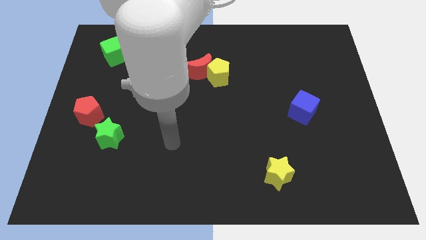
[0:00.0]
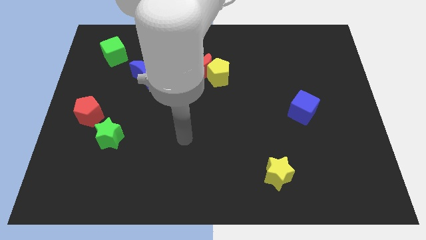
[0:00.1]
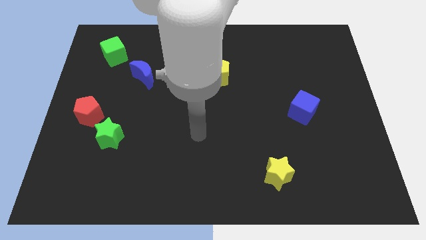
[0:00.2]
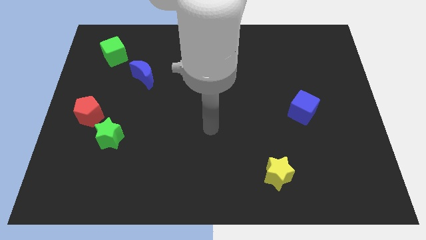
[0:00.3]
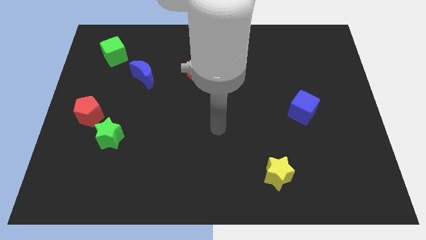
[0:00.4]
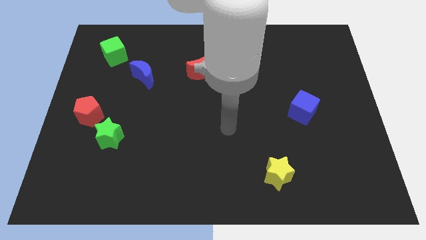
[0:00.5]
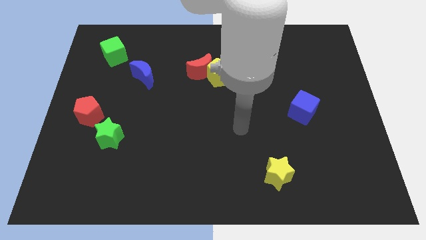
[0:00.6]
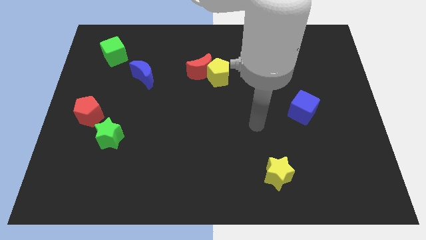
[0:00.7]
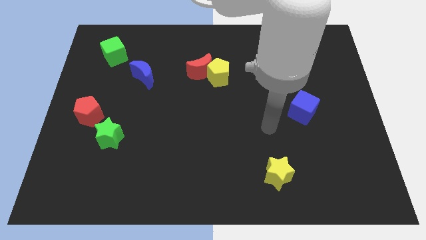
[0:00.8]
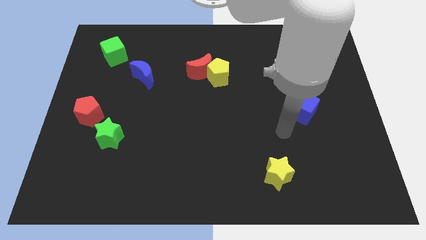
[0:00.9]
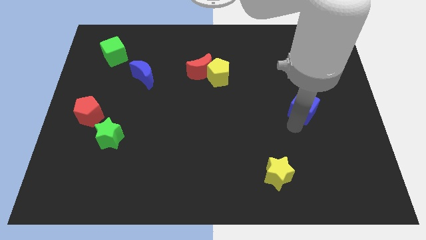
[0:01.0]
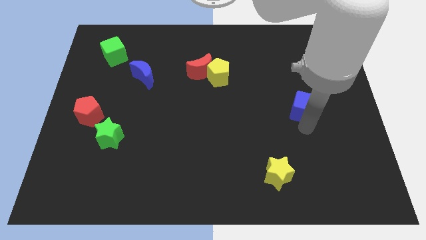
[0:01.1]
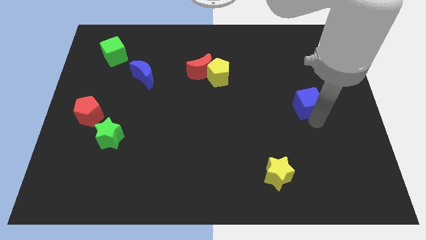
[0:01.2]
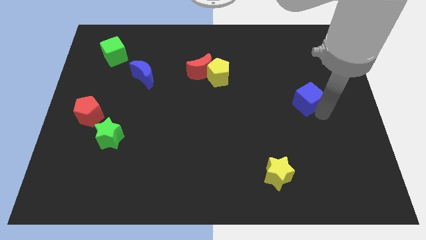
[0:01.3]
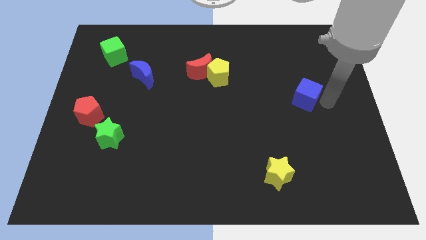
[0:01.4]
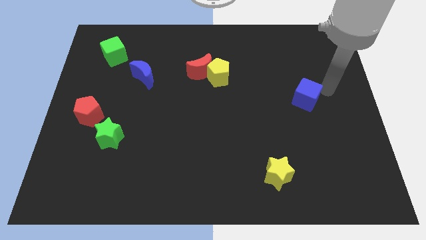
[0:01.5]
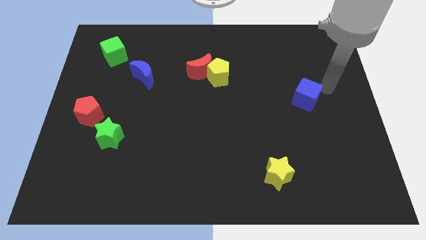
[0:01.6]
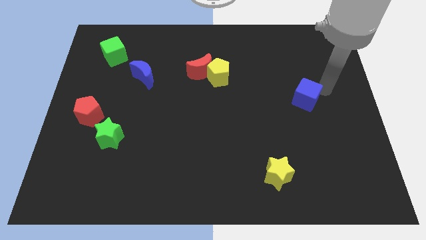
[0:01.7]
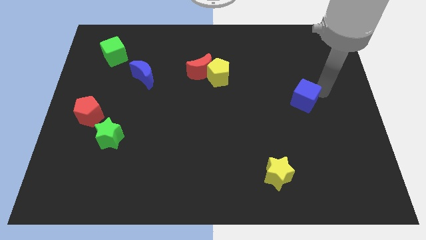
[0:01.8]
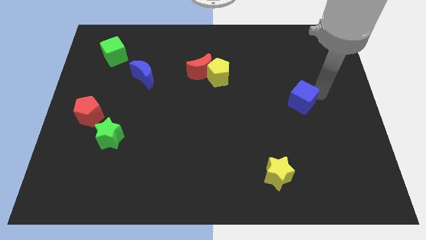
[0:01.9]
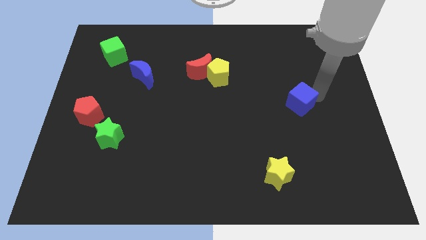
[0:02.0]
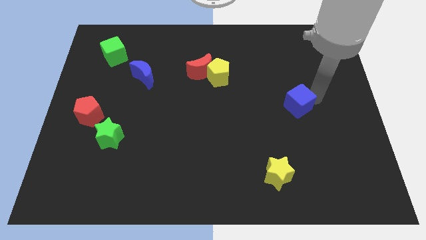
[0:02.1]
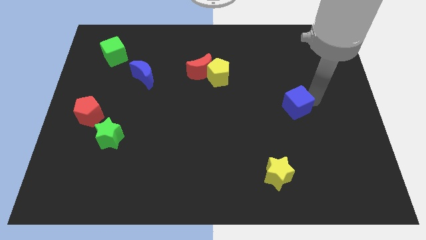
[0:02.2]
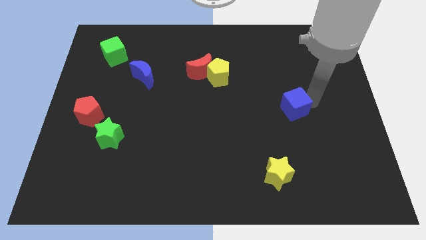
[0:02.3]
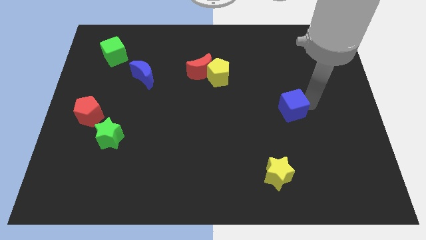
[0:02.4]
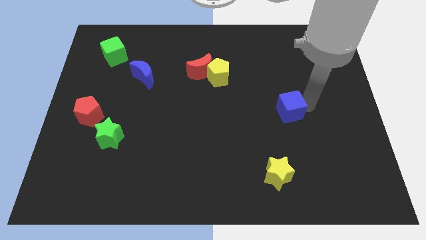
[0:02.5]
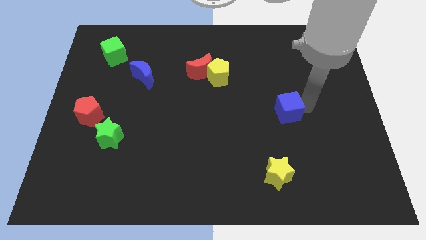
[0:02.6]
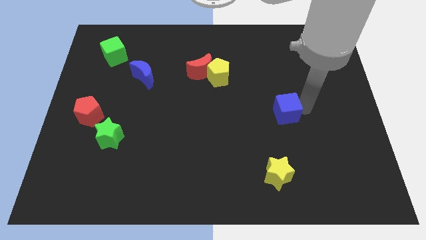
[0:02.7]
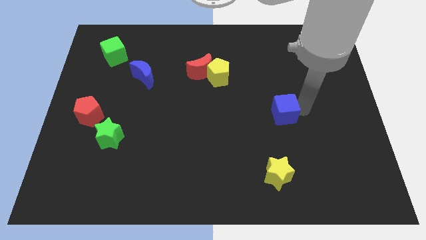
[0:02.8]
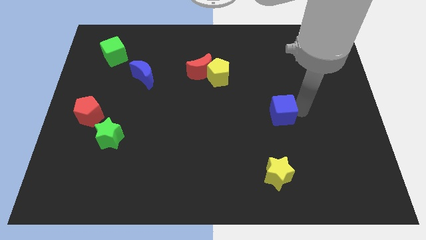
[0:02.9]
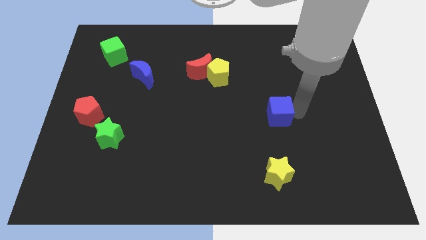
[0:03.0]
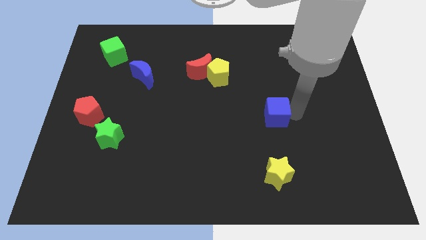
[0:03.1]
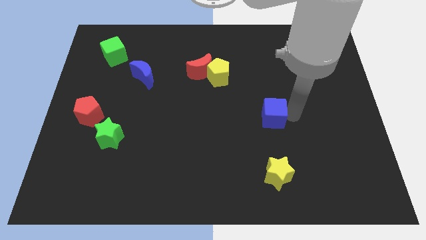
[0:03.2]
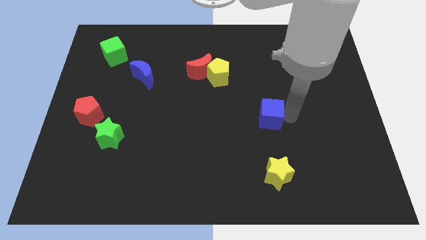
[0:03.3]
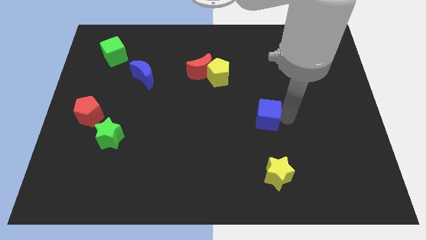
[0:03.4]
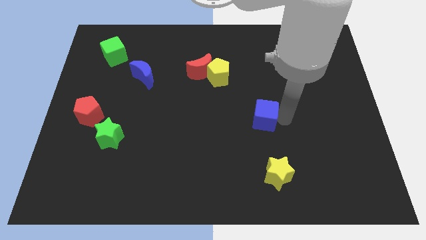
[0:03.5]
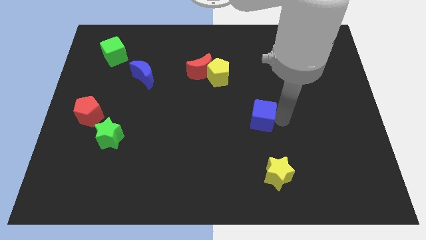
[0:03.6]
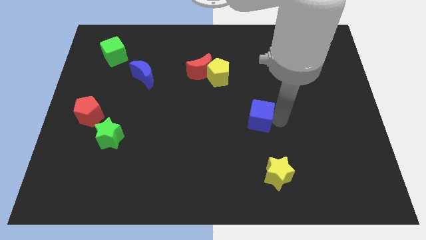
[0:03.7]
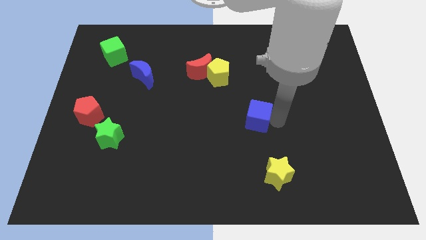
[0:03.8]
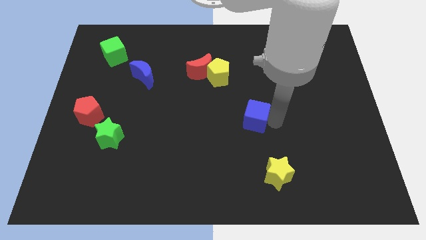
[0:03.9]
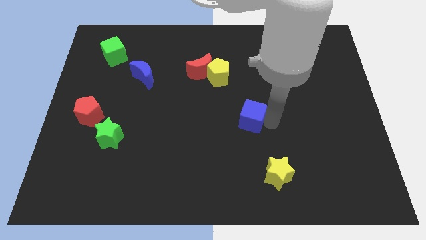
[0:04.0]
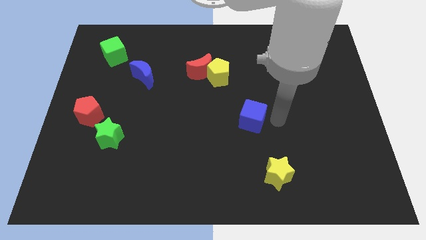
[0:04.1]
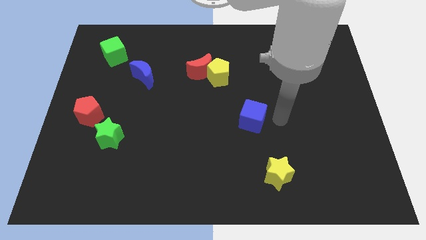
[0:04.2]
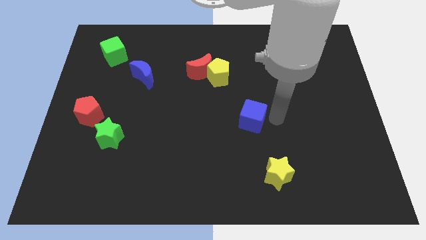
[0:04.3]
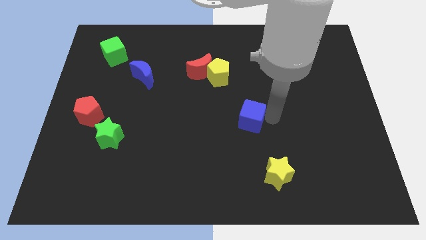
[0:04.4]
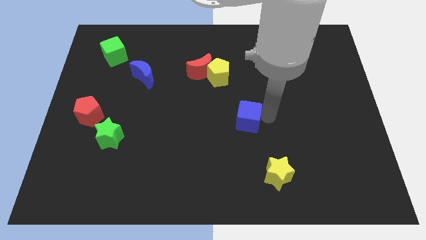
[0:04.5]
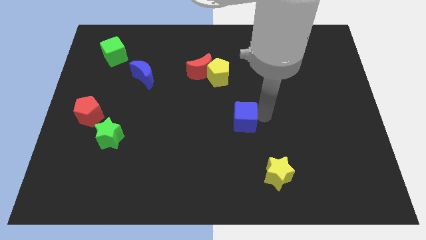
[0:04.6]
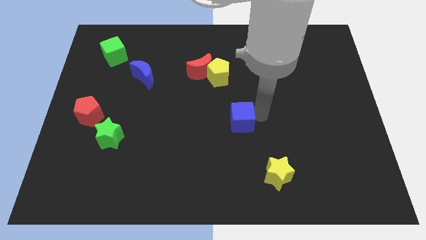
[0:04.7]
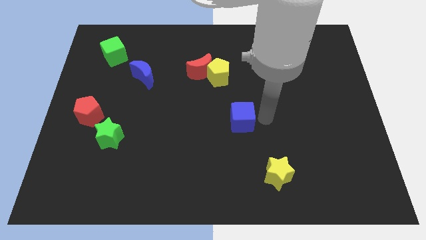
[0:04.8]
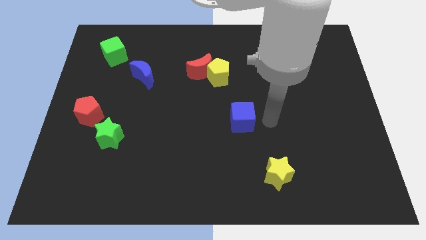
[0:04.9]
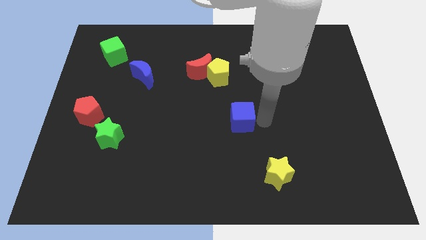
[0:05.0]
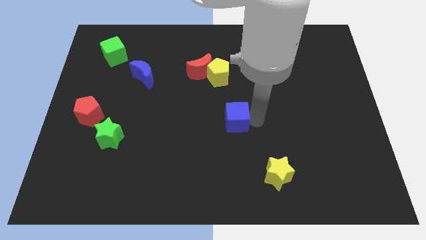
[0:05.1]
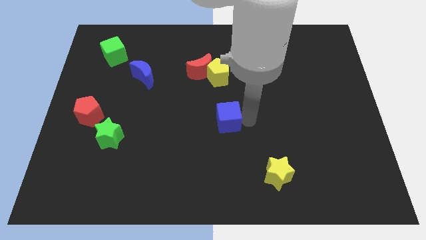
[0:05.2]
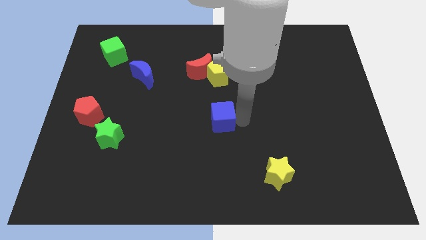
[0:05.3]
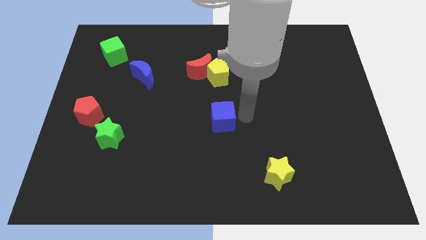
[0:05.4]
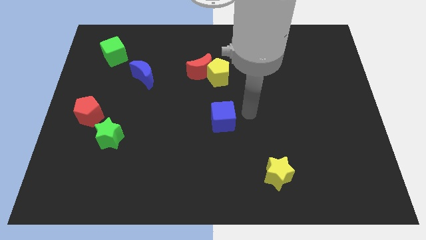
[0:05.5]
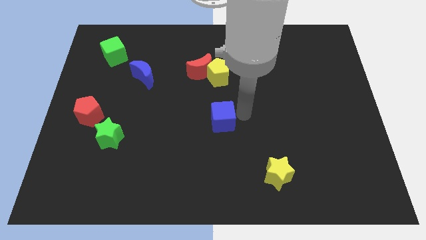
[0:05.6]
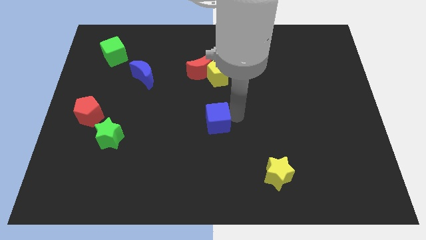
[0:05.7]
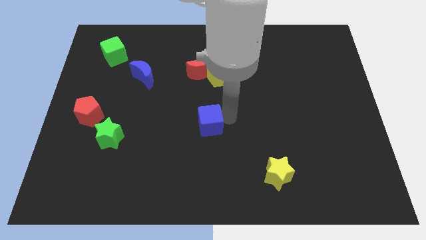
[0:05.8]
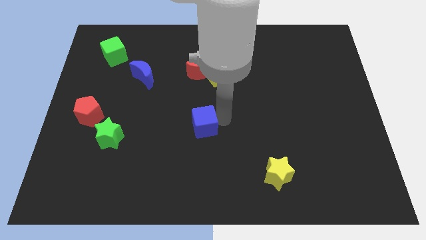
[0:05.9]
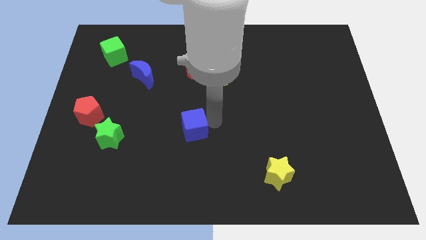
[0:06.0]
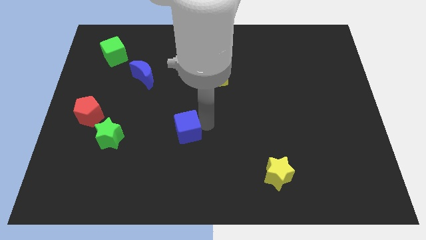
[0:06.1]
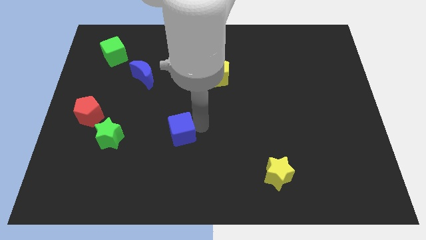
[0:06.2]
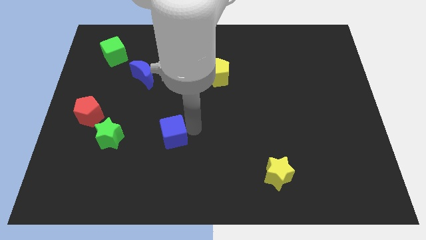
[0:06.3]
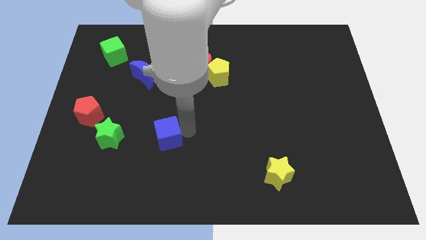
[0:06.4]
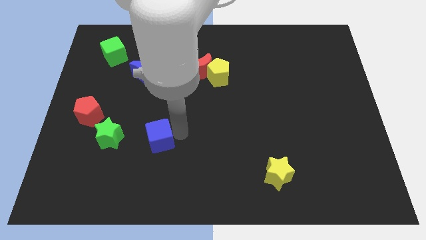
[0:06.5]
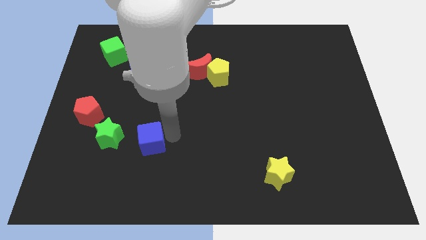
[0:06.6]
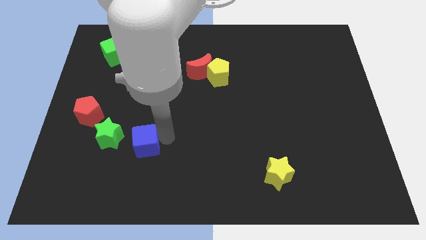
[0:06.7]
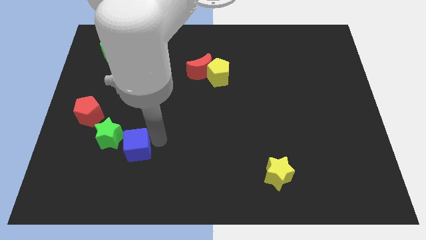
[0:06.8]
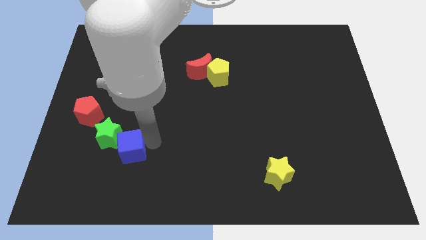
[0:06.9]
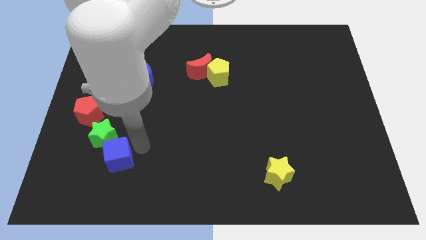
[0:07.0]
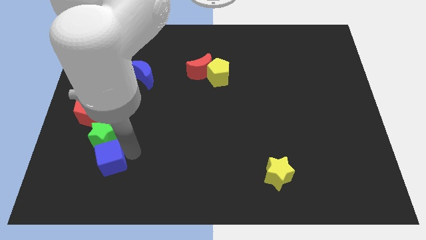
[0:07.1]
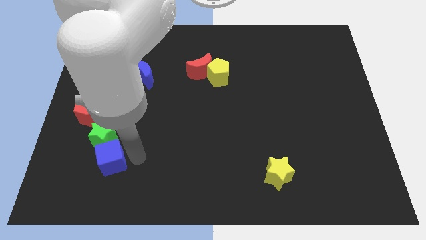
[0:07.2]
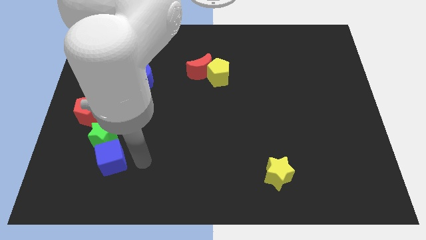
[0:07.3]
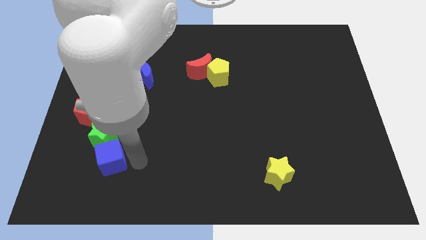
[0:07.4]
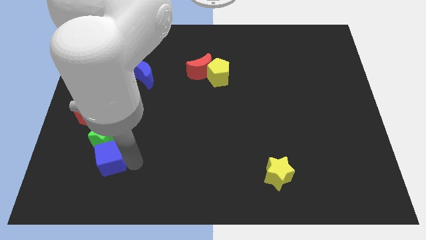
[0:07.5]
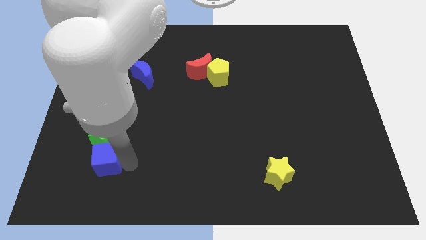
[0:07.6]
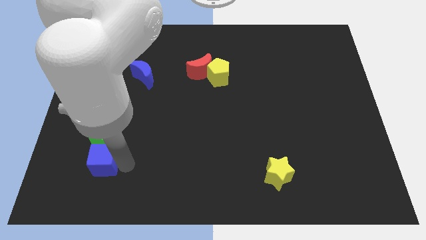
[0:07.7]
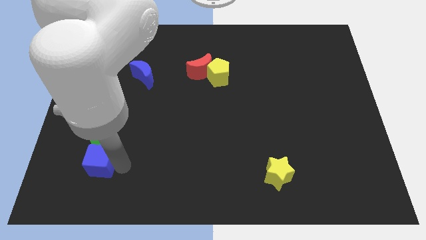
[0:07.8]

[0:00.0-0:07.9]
push the blue cube diagonally down and to the left of the green star
